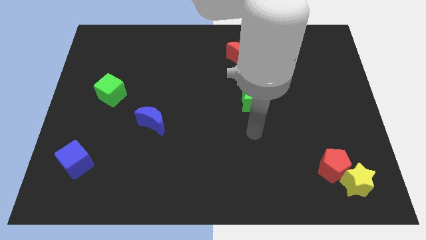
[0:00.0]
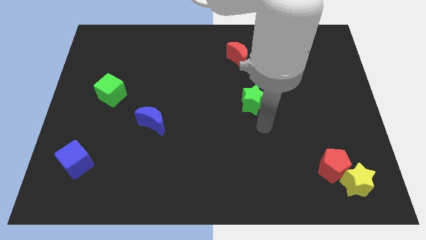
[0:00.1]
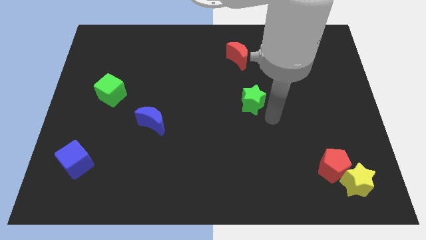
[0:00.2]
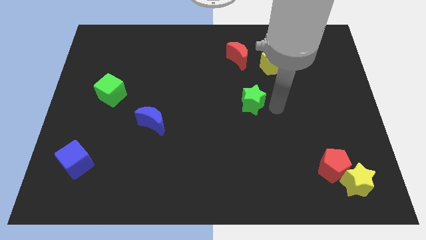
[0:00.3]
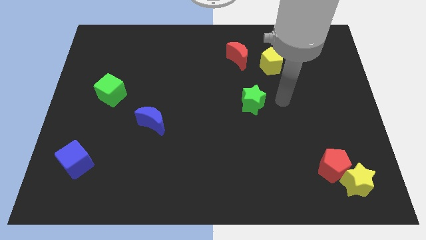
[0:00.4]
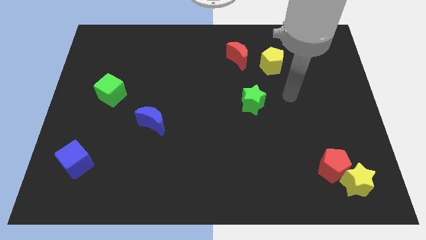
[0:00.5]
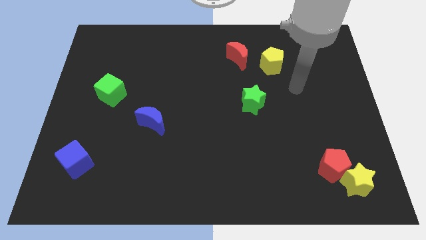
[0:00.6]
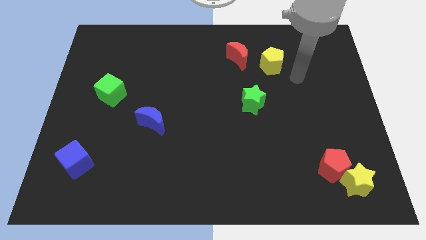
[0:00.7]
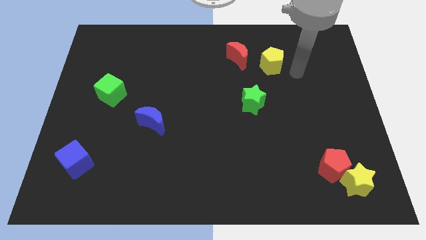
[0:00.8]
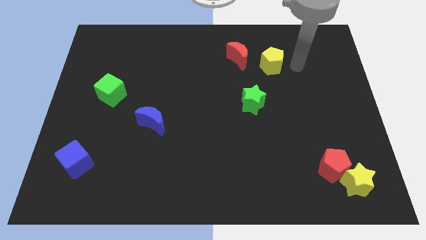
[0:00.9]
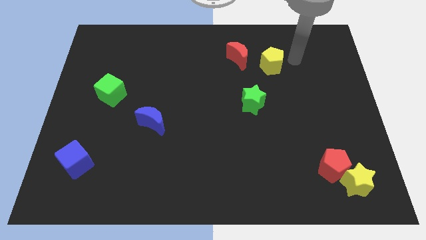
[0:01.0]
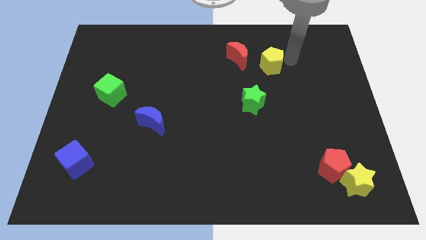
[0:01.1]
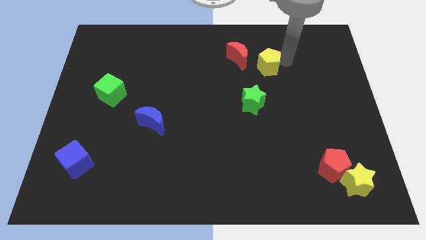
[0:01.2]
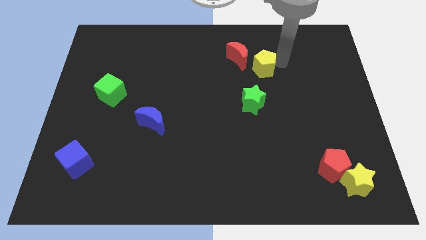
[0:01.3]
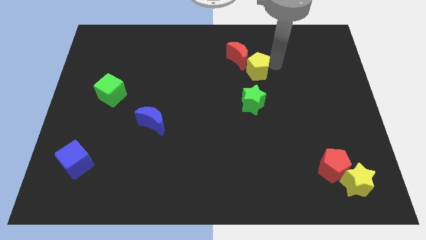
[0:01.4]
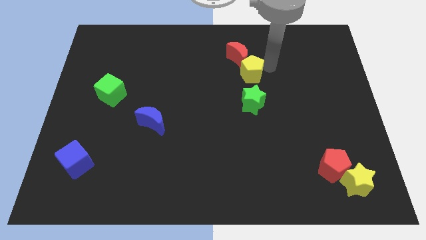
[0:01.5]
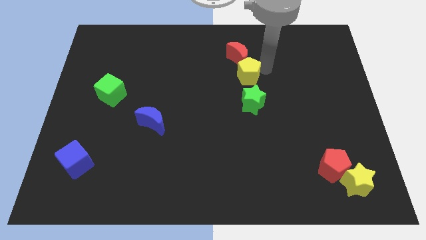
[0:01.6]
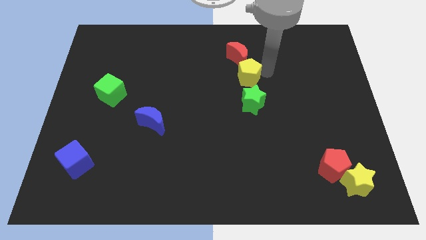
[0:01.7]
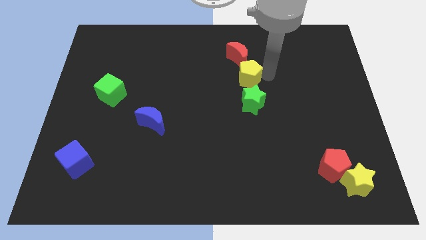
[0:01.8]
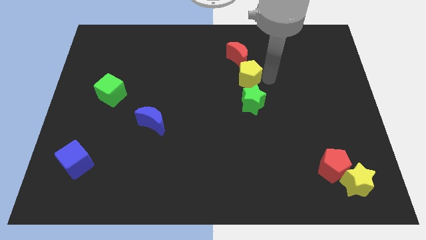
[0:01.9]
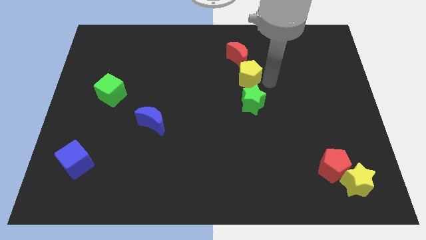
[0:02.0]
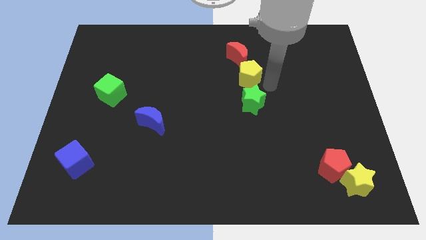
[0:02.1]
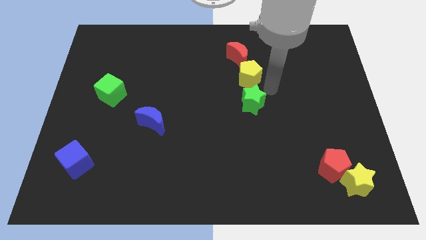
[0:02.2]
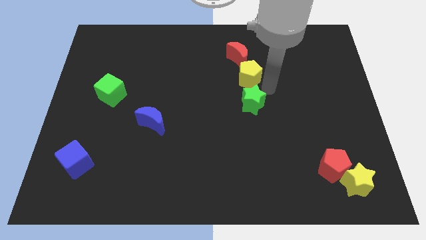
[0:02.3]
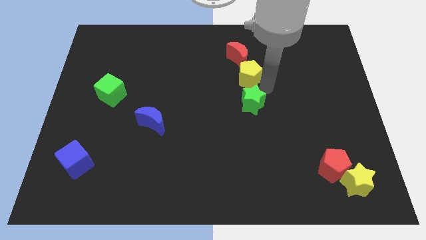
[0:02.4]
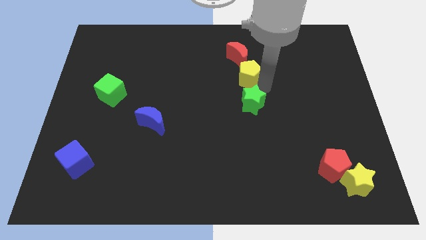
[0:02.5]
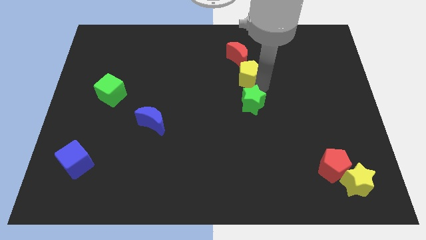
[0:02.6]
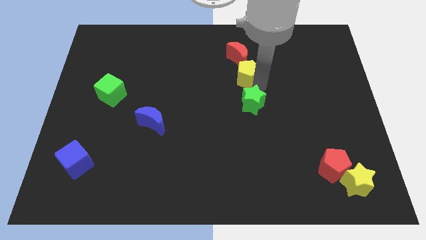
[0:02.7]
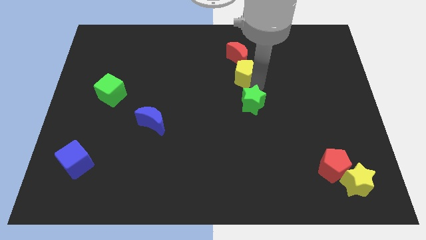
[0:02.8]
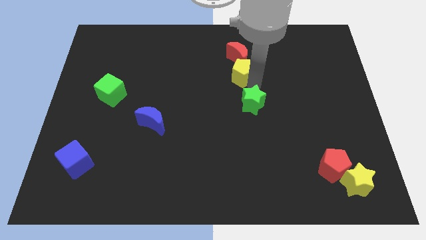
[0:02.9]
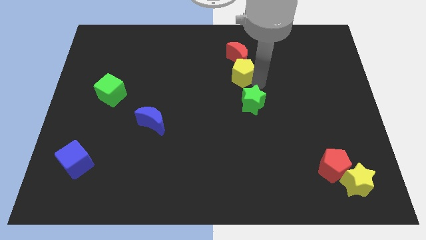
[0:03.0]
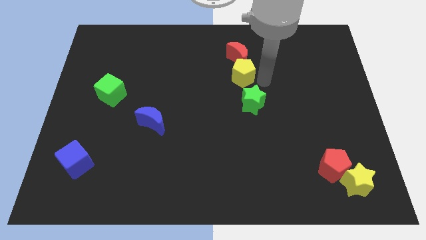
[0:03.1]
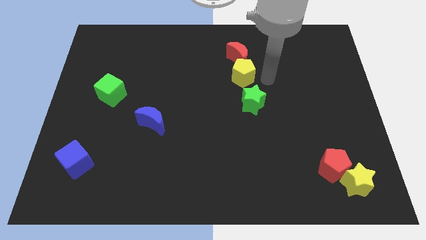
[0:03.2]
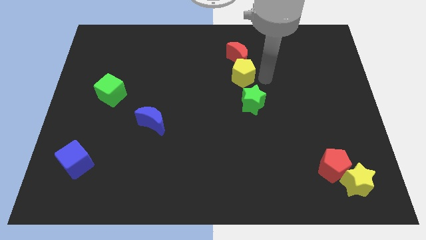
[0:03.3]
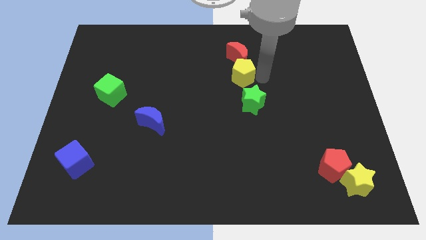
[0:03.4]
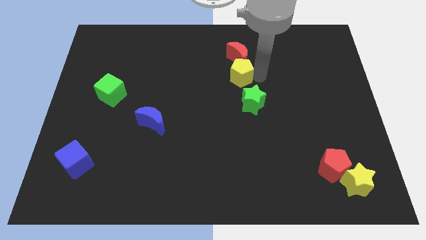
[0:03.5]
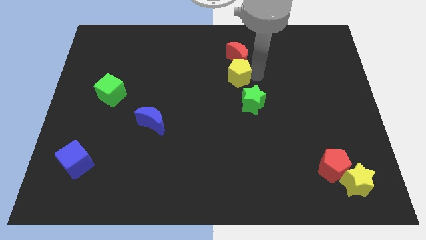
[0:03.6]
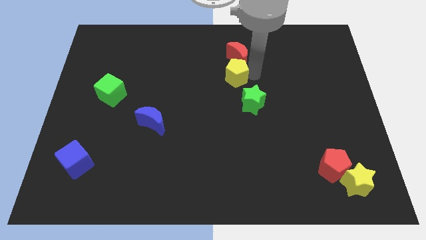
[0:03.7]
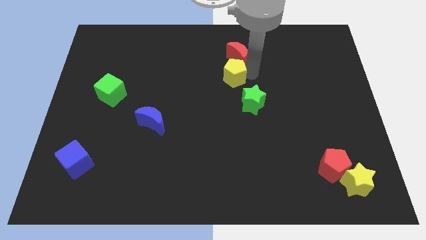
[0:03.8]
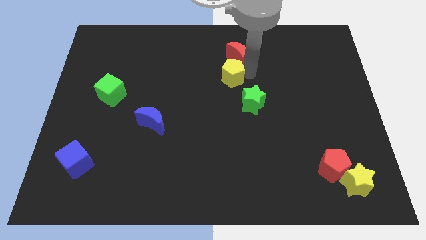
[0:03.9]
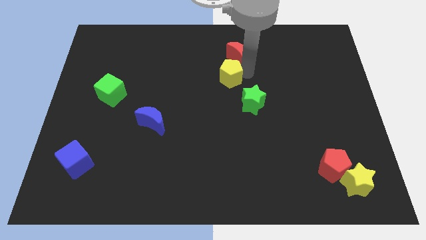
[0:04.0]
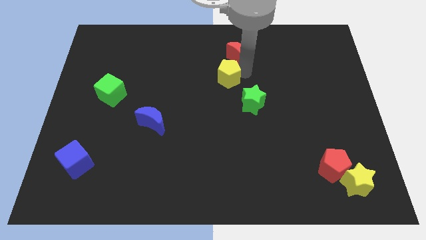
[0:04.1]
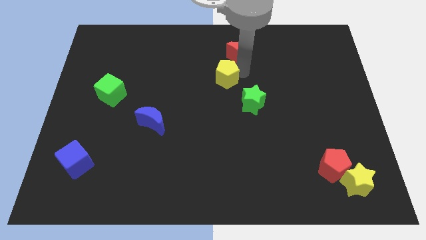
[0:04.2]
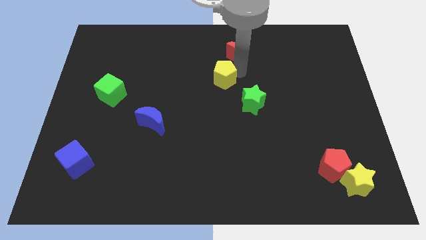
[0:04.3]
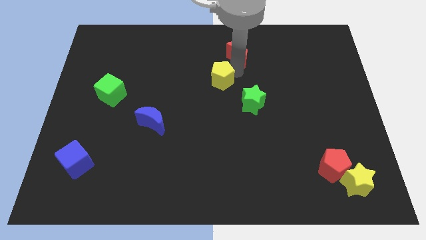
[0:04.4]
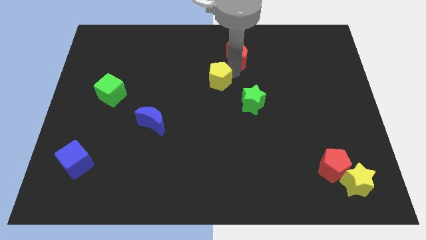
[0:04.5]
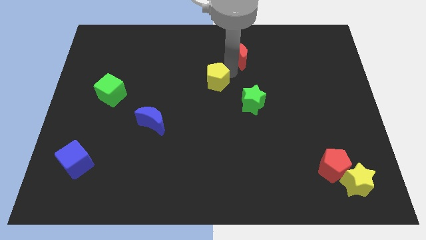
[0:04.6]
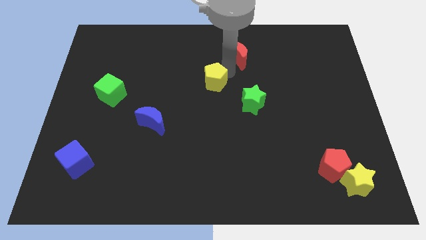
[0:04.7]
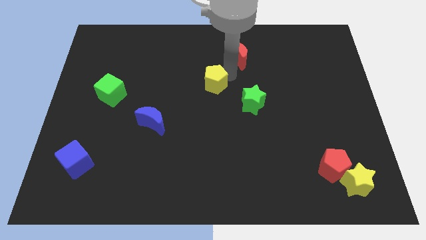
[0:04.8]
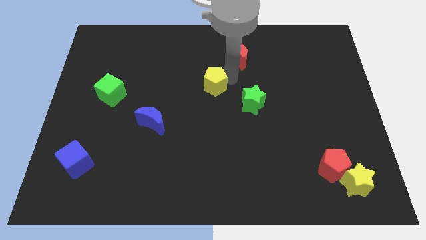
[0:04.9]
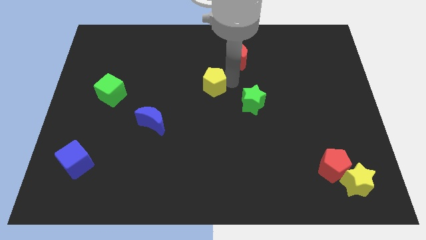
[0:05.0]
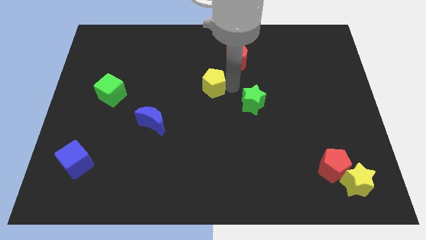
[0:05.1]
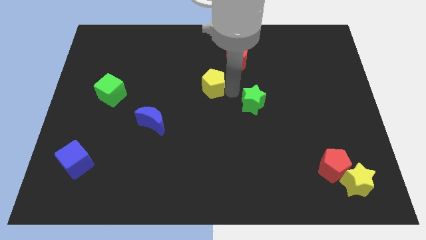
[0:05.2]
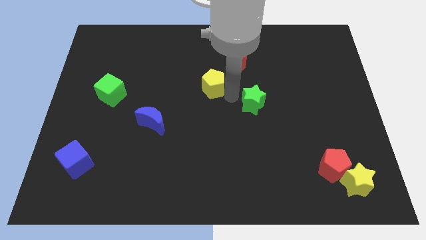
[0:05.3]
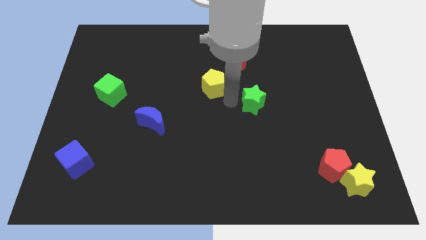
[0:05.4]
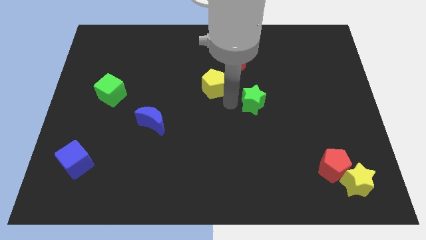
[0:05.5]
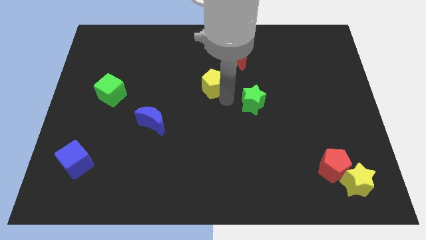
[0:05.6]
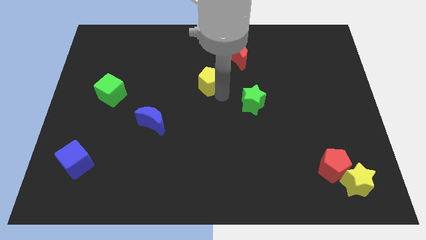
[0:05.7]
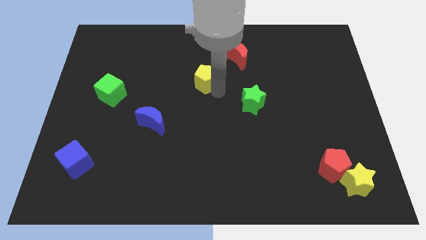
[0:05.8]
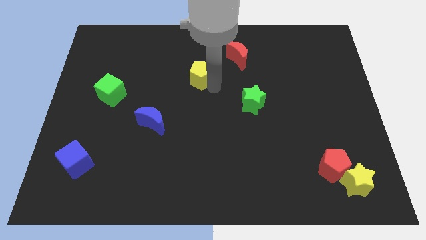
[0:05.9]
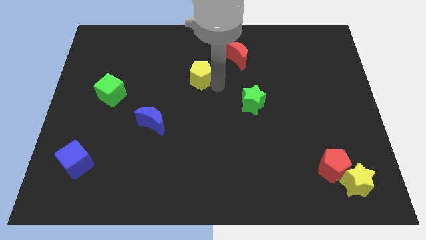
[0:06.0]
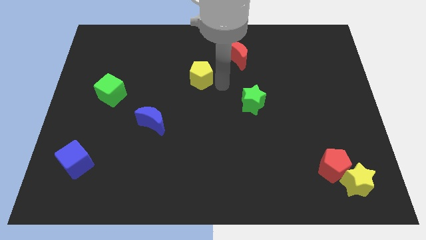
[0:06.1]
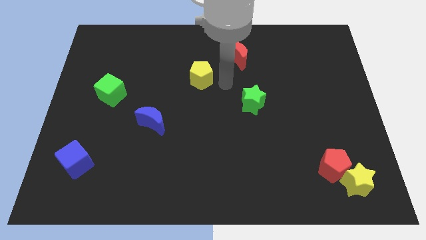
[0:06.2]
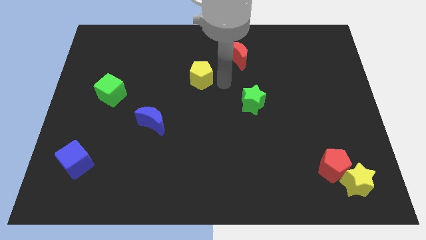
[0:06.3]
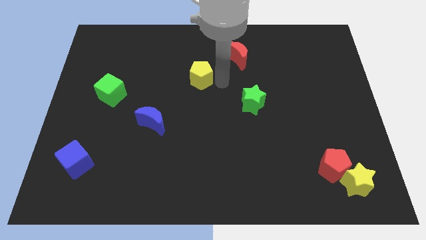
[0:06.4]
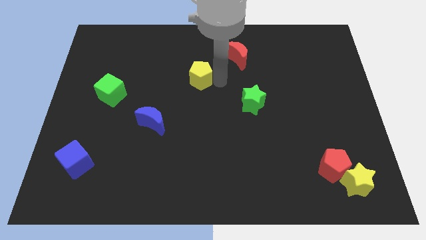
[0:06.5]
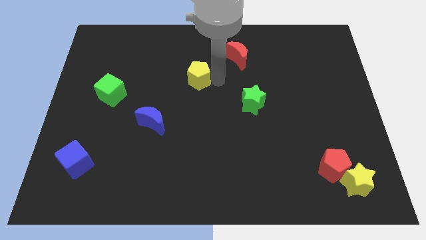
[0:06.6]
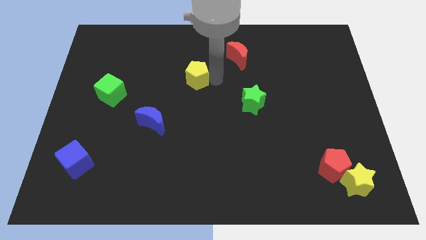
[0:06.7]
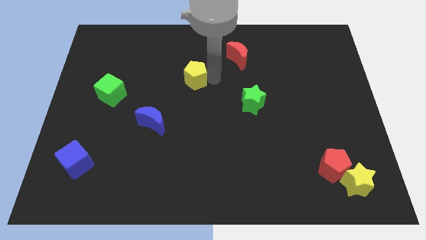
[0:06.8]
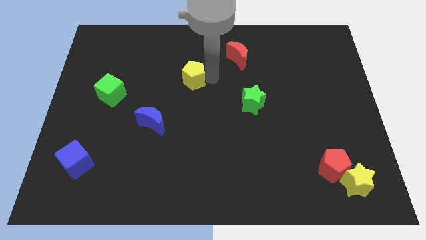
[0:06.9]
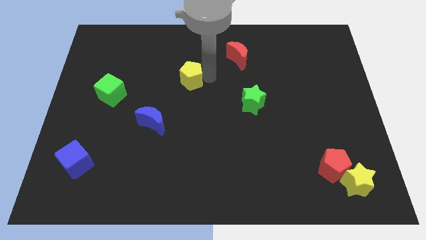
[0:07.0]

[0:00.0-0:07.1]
slide the yellow pentagon to the left

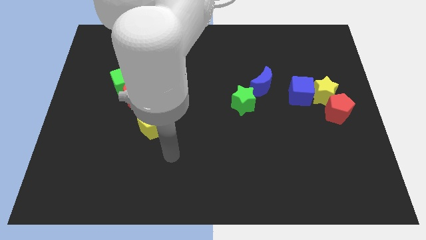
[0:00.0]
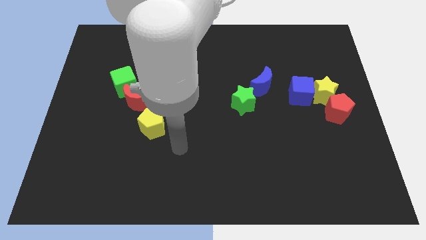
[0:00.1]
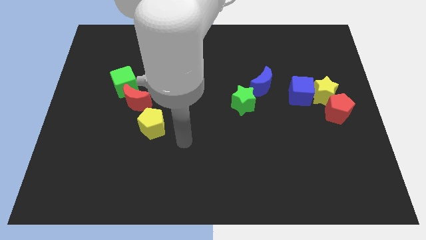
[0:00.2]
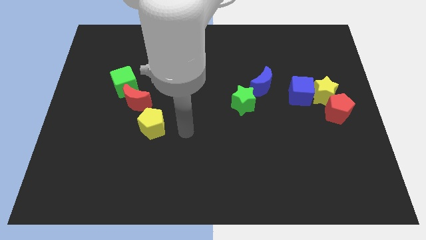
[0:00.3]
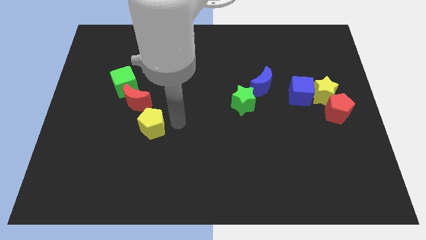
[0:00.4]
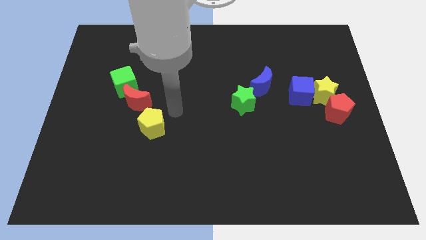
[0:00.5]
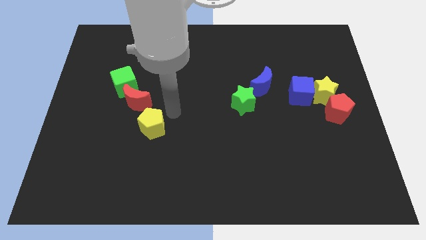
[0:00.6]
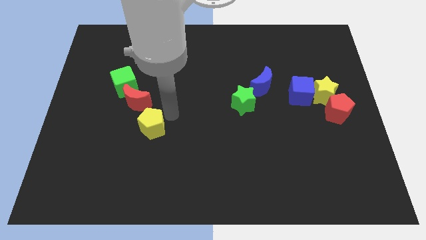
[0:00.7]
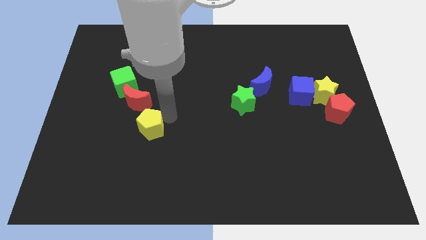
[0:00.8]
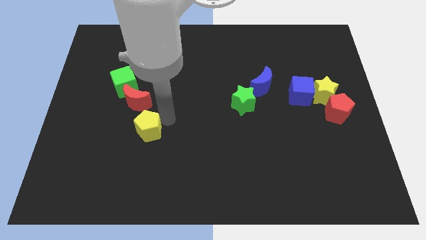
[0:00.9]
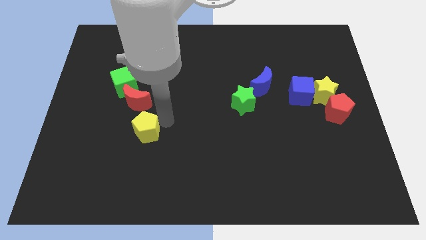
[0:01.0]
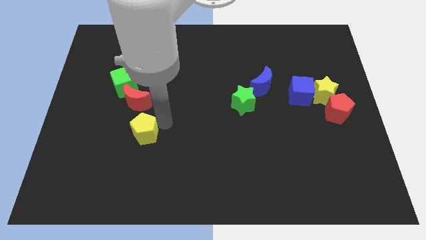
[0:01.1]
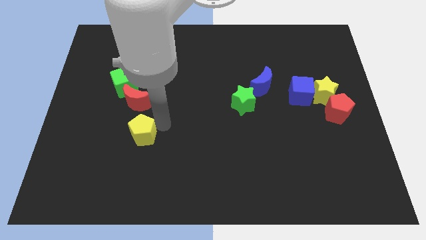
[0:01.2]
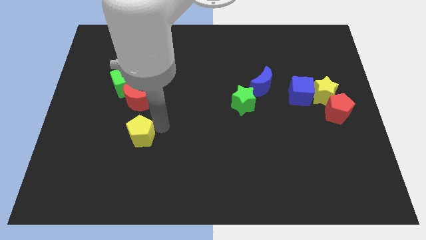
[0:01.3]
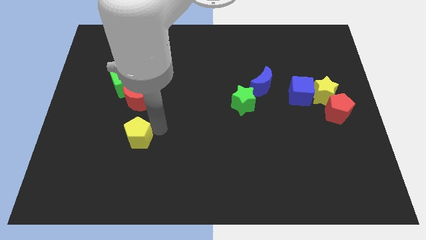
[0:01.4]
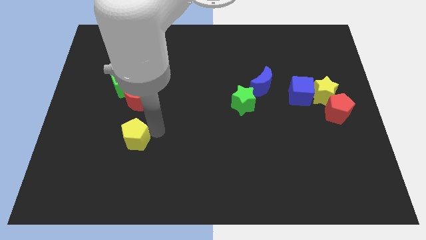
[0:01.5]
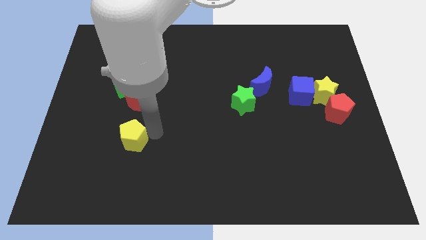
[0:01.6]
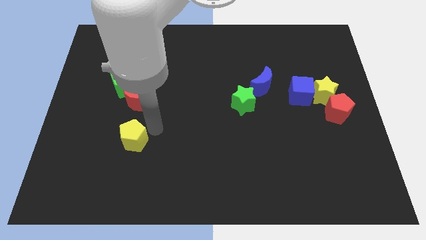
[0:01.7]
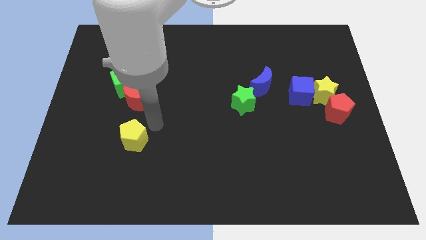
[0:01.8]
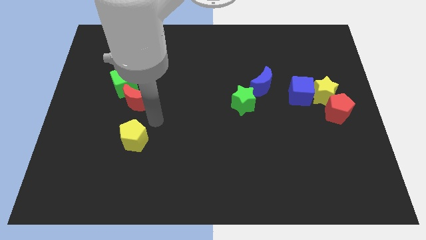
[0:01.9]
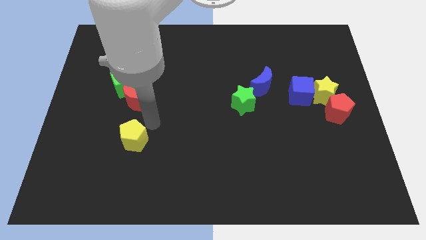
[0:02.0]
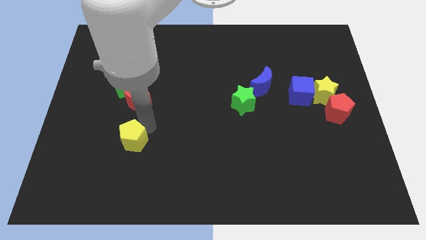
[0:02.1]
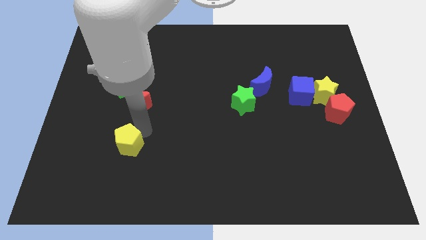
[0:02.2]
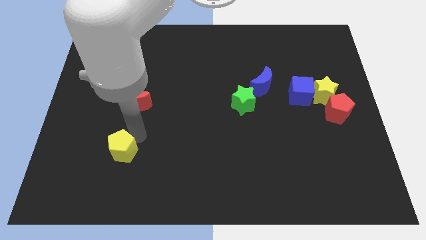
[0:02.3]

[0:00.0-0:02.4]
slightly slide the yellow pentagon downwards and to the left diagonally
